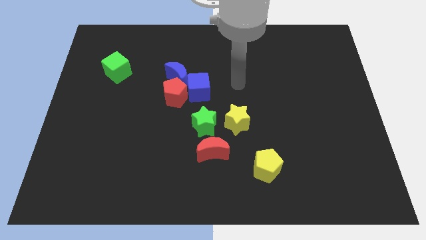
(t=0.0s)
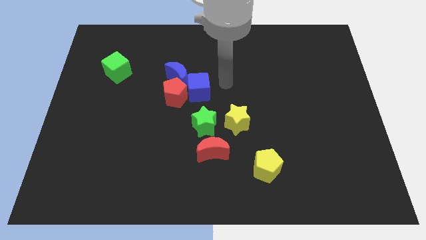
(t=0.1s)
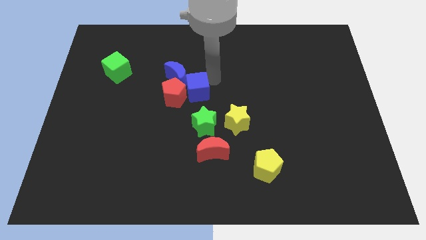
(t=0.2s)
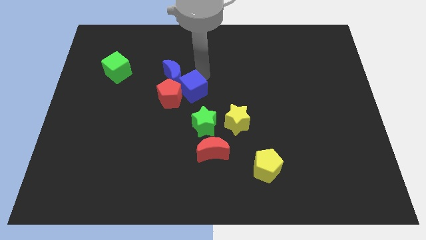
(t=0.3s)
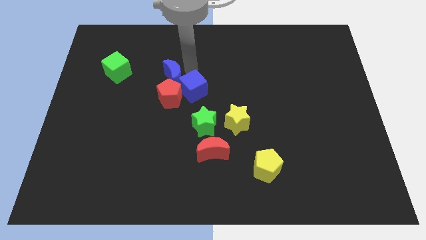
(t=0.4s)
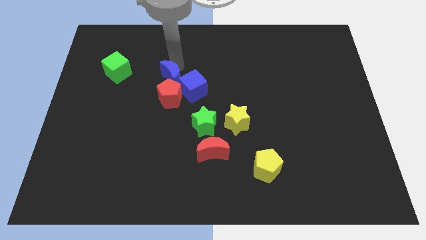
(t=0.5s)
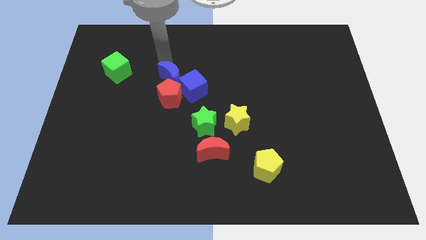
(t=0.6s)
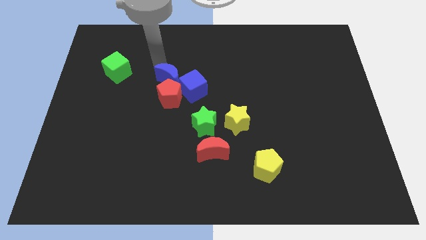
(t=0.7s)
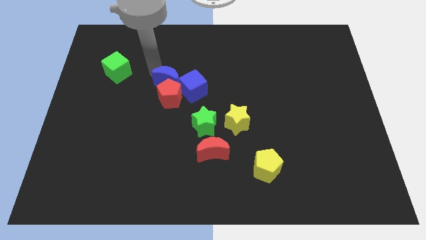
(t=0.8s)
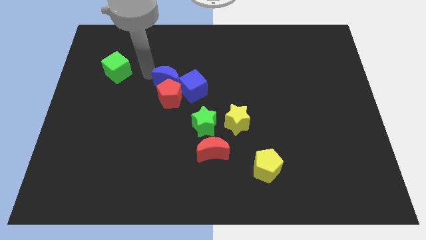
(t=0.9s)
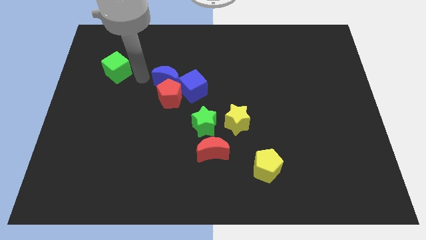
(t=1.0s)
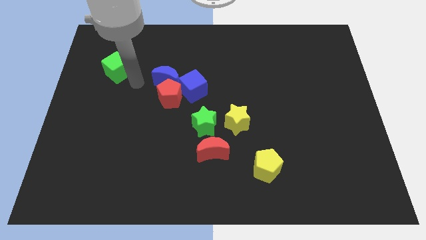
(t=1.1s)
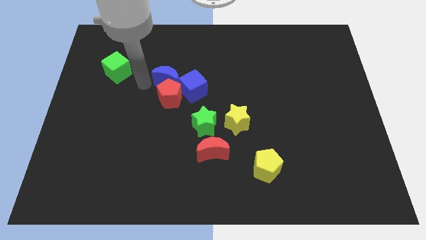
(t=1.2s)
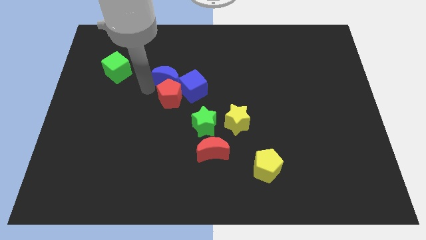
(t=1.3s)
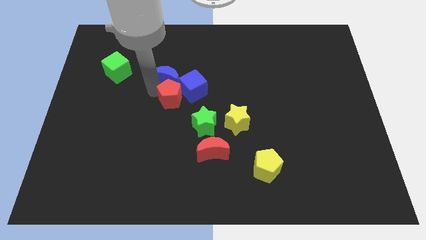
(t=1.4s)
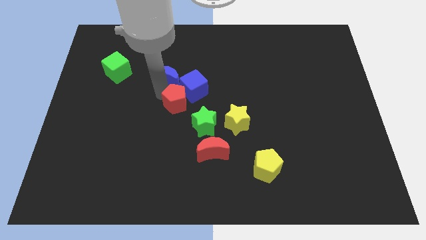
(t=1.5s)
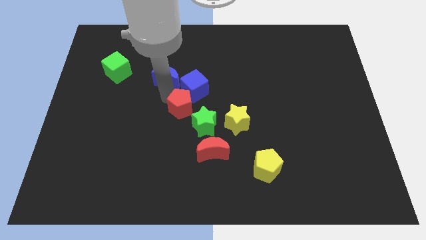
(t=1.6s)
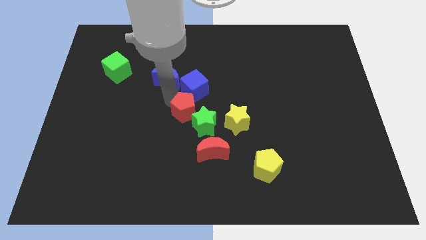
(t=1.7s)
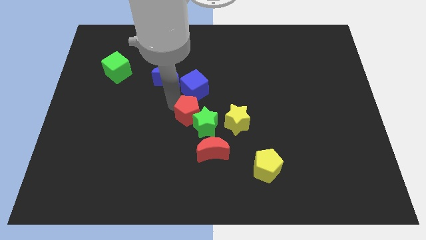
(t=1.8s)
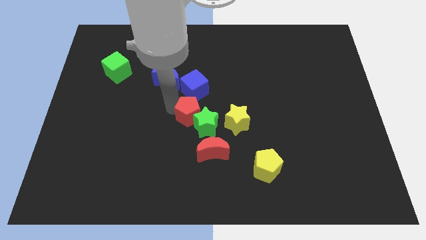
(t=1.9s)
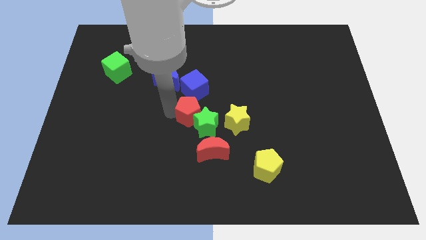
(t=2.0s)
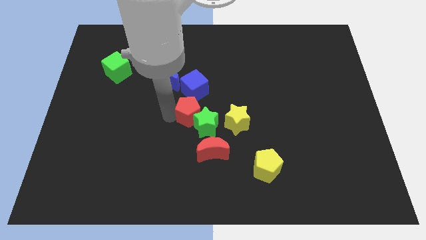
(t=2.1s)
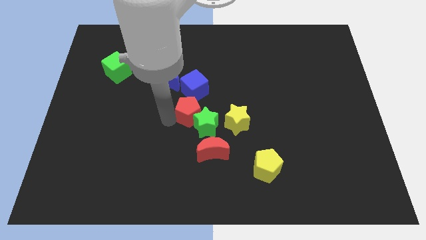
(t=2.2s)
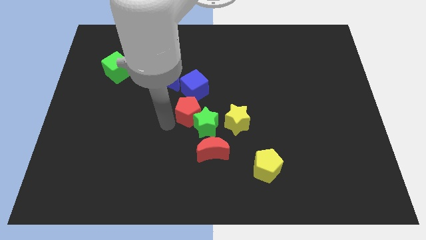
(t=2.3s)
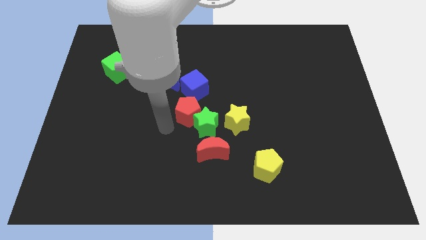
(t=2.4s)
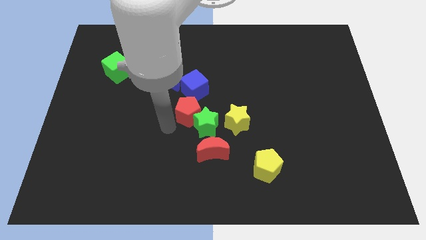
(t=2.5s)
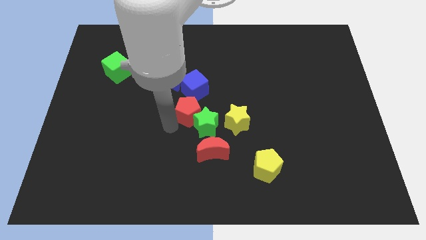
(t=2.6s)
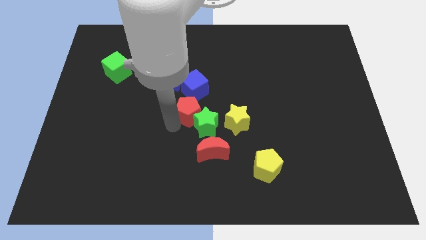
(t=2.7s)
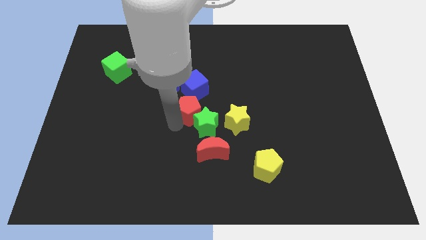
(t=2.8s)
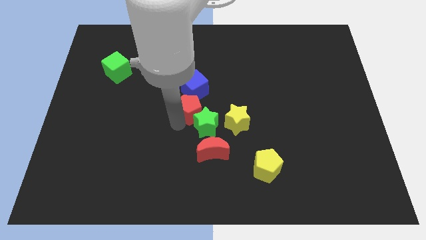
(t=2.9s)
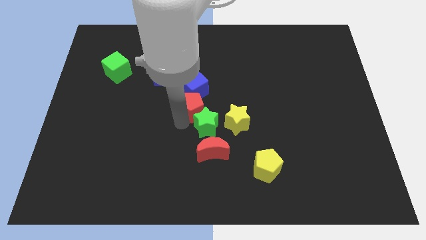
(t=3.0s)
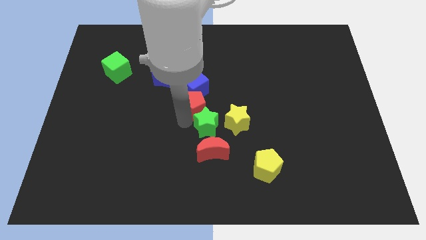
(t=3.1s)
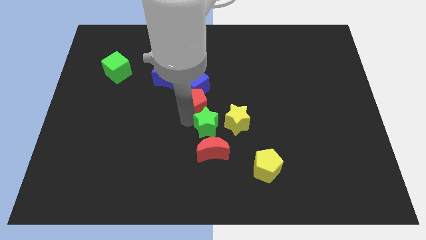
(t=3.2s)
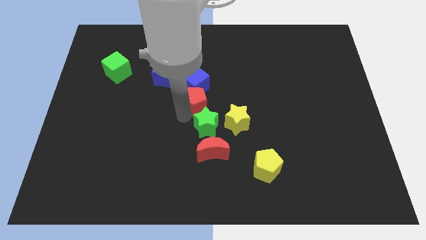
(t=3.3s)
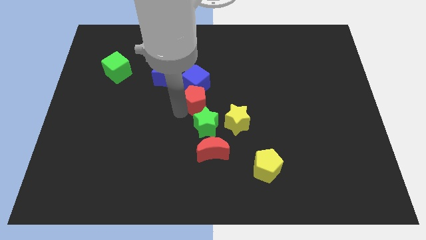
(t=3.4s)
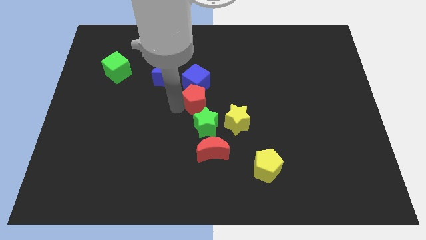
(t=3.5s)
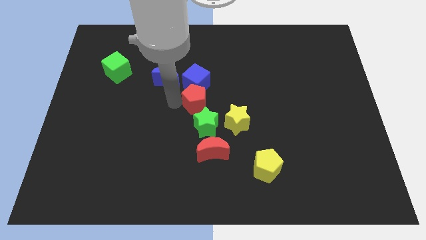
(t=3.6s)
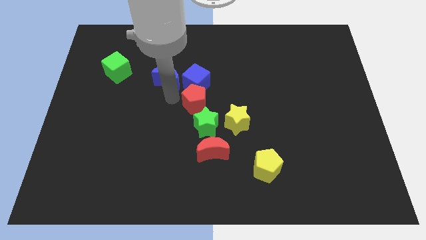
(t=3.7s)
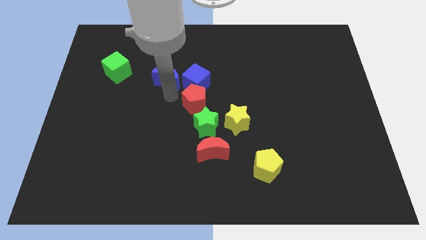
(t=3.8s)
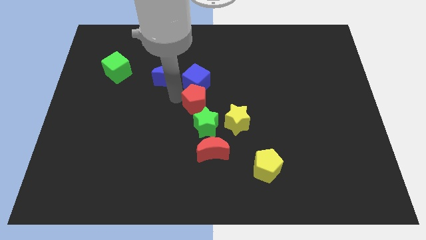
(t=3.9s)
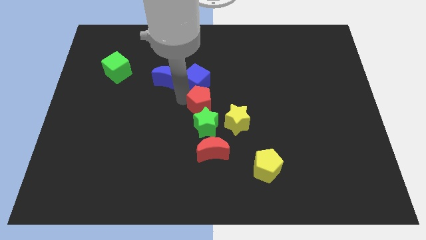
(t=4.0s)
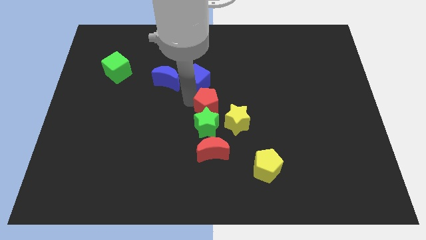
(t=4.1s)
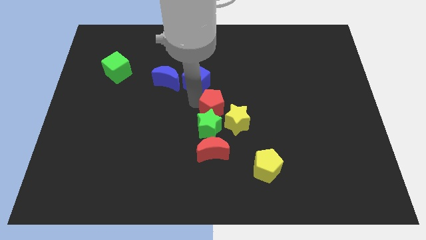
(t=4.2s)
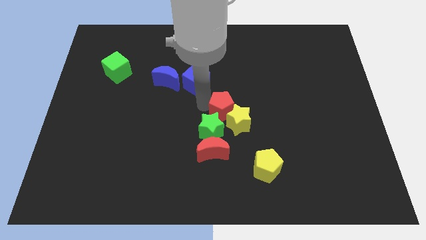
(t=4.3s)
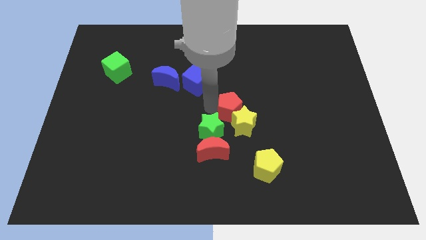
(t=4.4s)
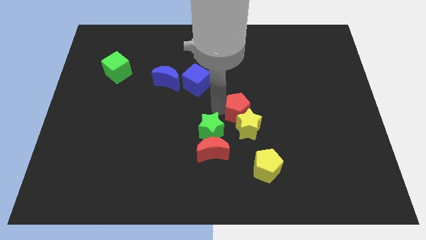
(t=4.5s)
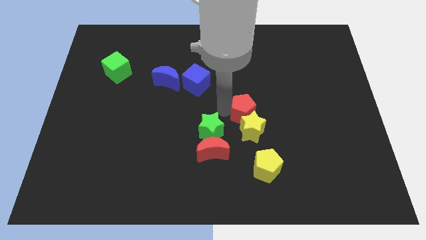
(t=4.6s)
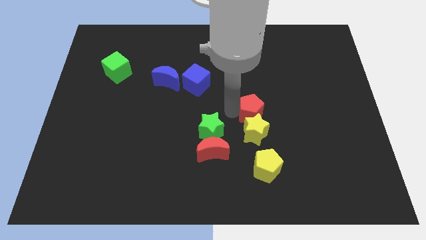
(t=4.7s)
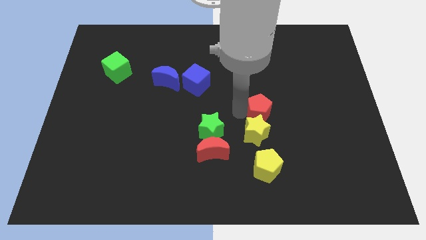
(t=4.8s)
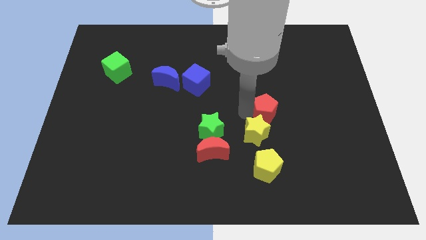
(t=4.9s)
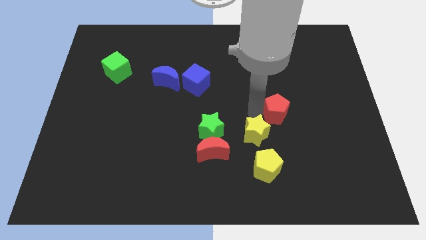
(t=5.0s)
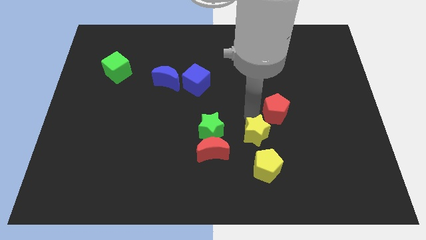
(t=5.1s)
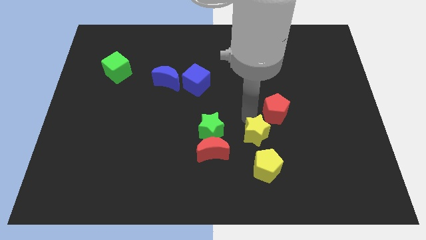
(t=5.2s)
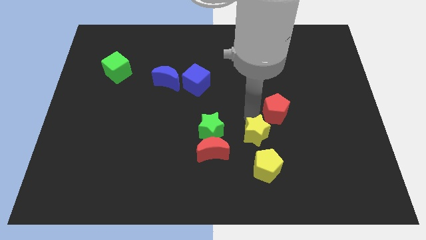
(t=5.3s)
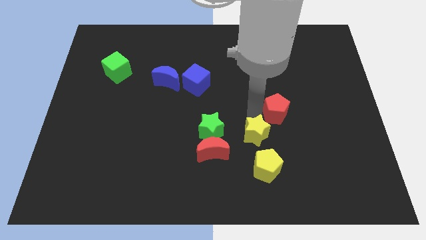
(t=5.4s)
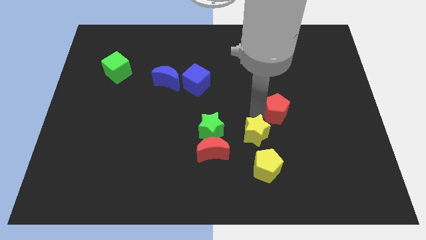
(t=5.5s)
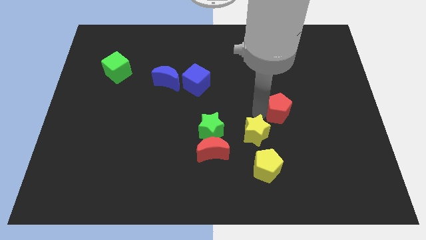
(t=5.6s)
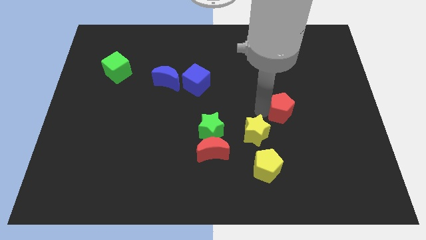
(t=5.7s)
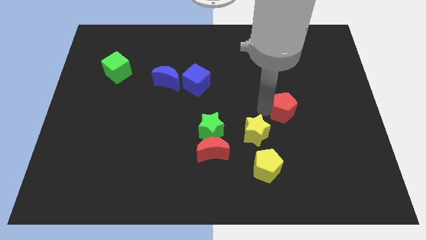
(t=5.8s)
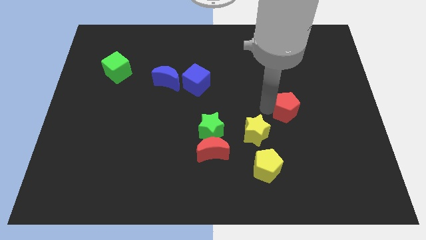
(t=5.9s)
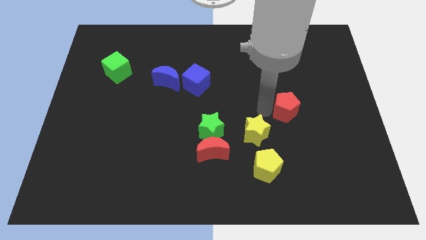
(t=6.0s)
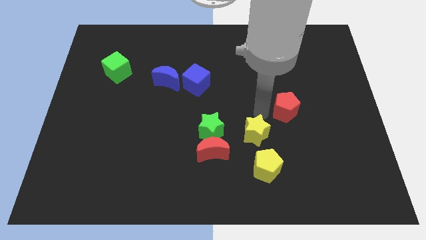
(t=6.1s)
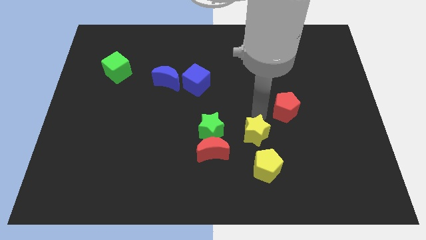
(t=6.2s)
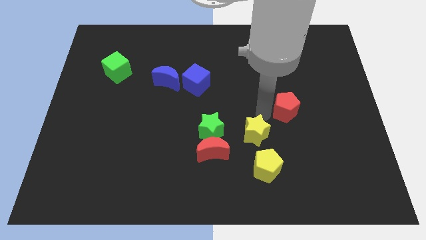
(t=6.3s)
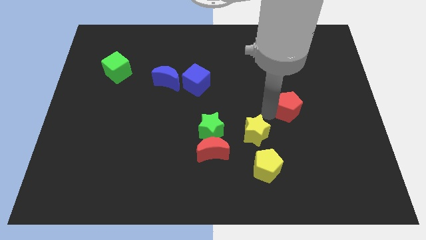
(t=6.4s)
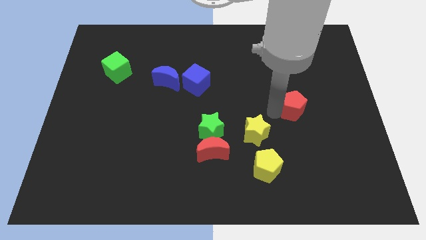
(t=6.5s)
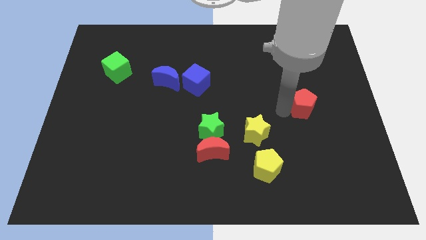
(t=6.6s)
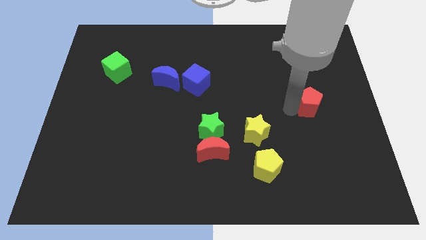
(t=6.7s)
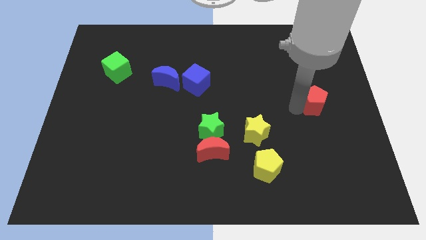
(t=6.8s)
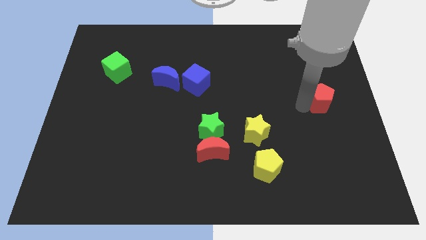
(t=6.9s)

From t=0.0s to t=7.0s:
put the red pentagon to the right side
